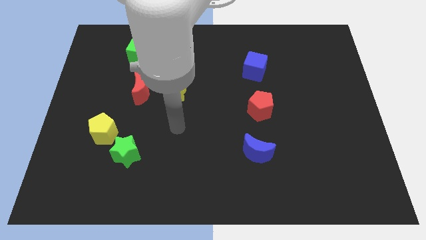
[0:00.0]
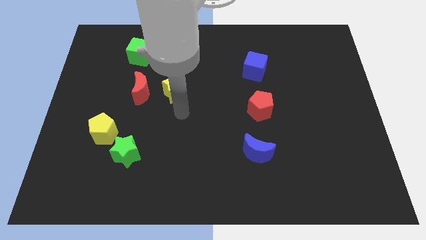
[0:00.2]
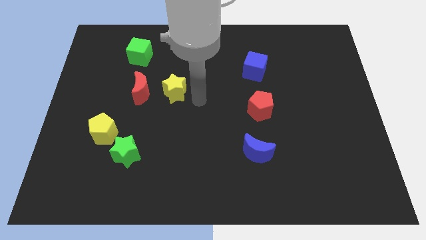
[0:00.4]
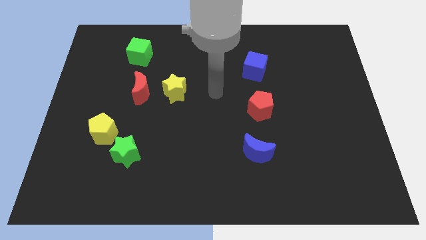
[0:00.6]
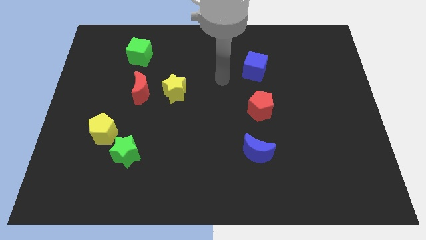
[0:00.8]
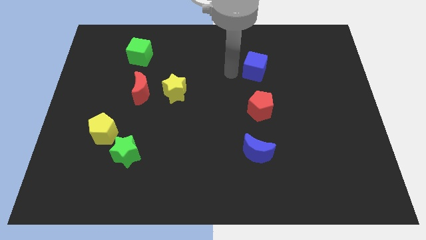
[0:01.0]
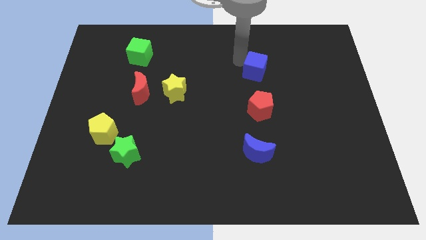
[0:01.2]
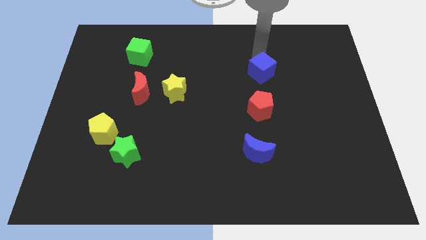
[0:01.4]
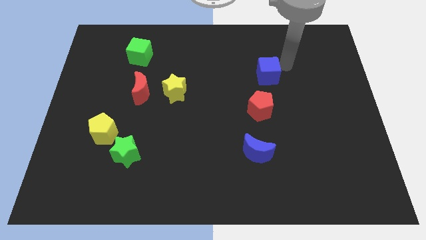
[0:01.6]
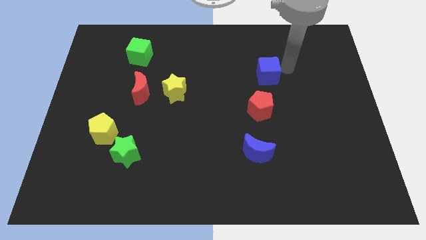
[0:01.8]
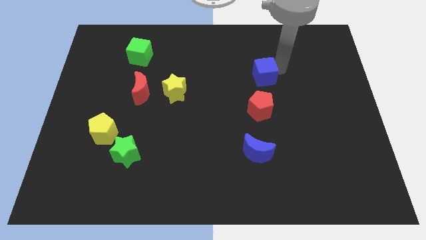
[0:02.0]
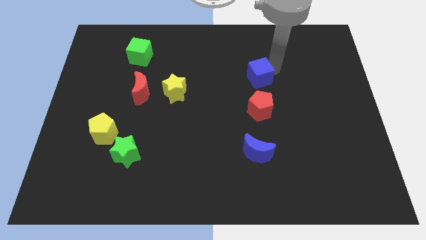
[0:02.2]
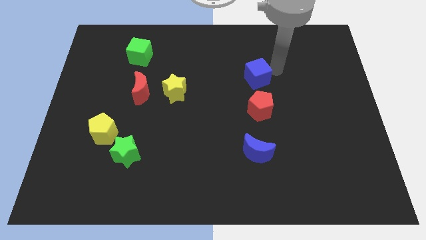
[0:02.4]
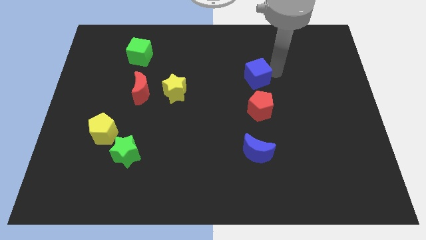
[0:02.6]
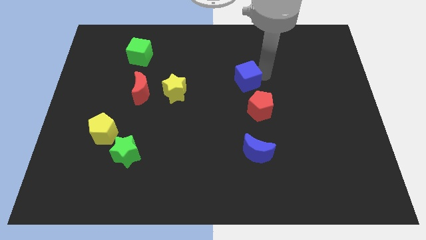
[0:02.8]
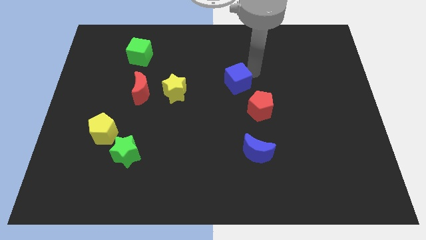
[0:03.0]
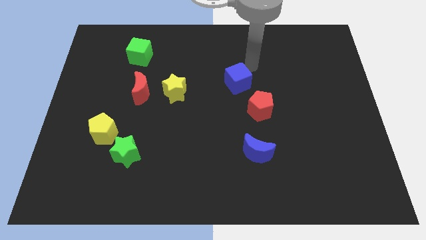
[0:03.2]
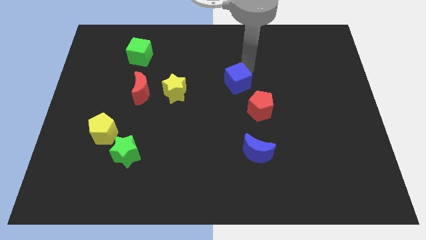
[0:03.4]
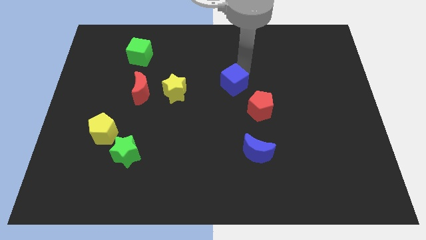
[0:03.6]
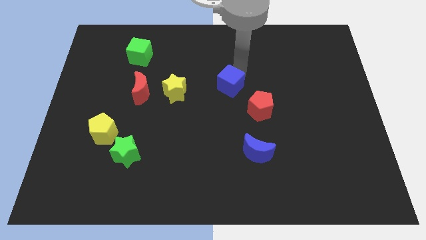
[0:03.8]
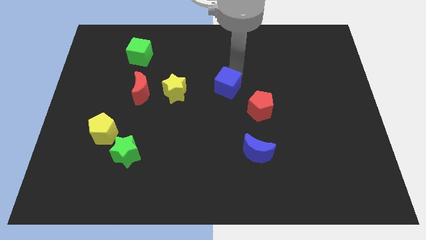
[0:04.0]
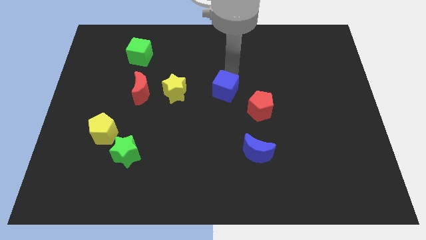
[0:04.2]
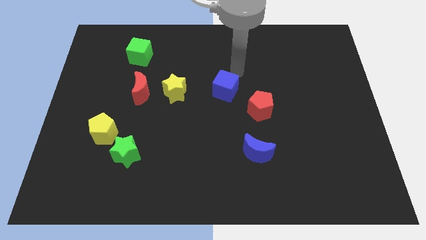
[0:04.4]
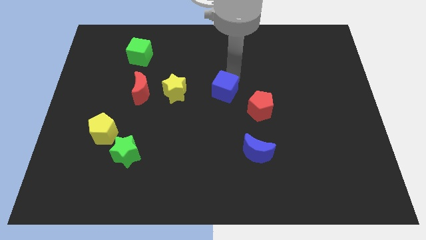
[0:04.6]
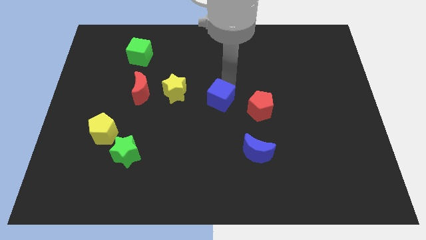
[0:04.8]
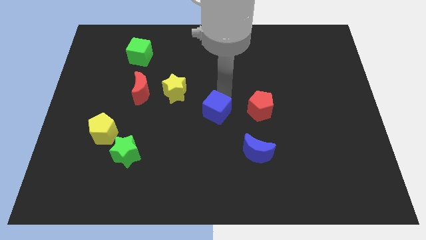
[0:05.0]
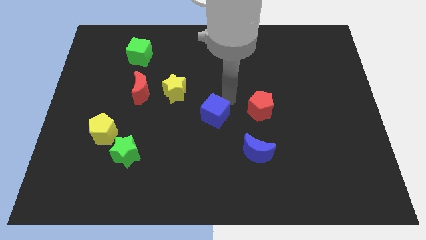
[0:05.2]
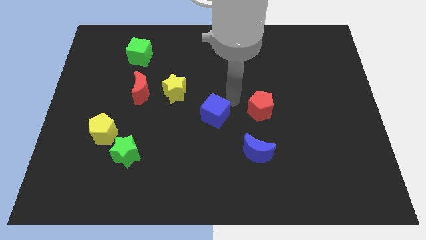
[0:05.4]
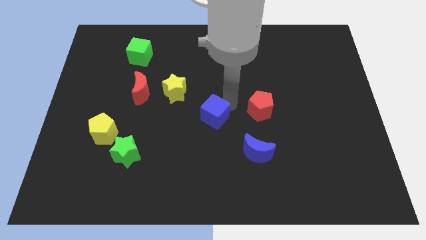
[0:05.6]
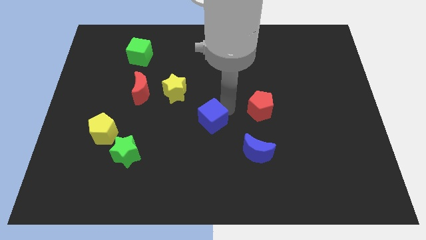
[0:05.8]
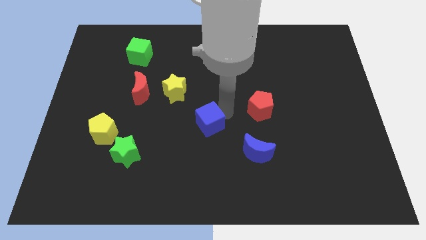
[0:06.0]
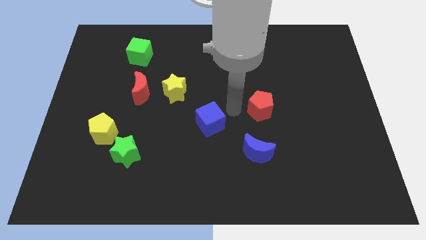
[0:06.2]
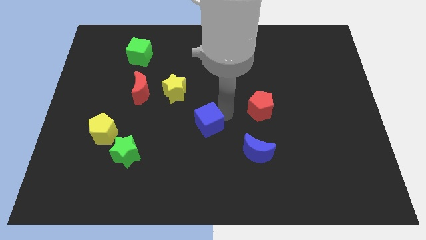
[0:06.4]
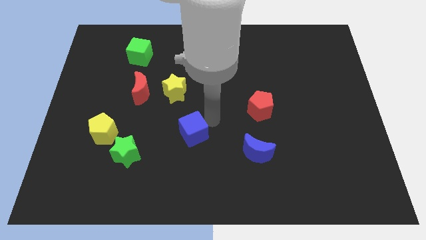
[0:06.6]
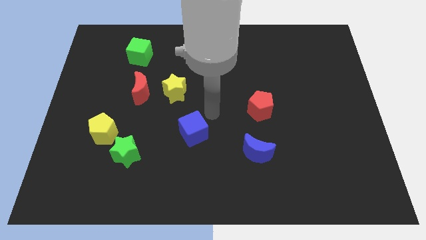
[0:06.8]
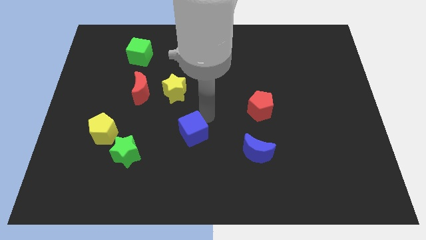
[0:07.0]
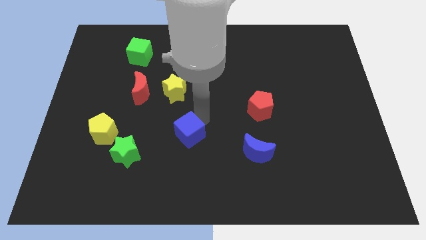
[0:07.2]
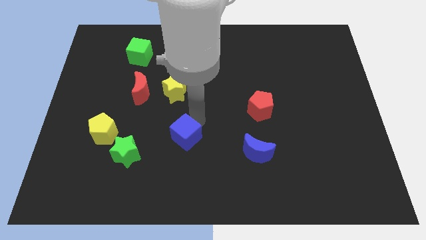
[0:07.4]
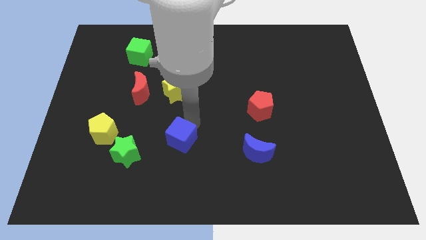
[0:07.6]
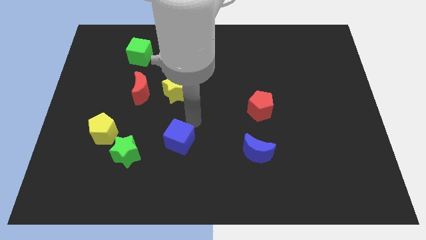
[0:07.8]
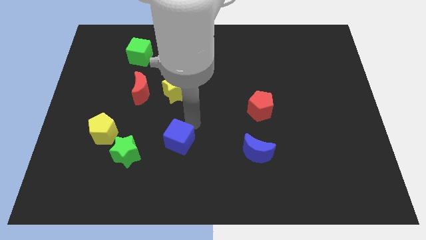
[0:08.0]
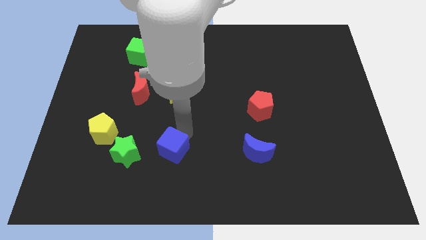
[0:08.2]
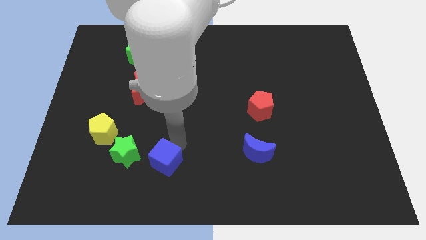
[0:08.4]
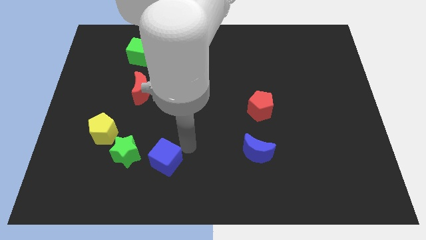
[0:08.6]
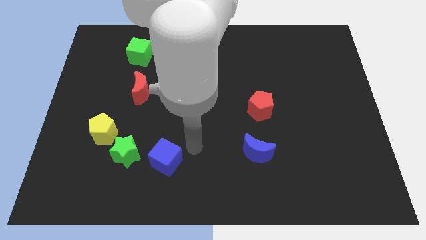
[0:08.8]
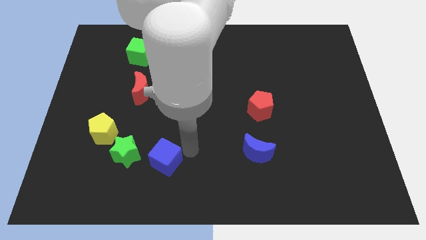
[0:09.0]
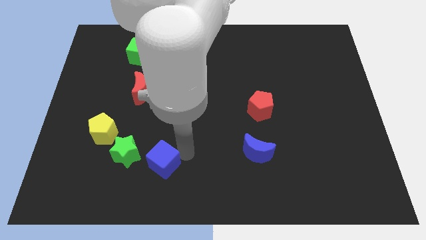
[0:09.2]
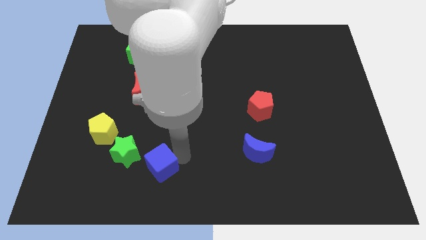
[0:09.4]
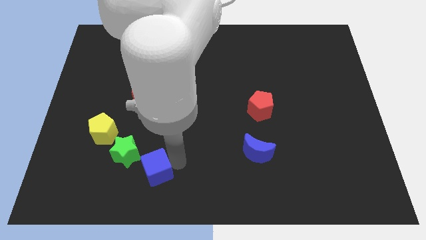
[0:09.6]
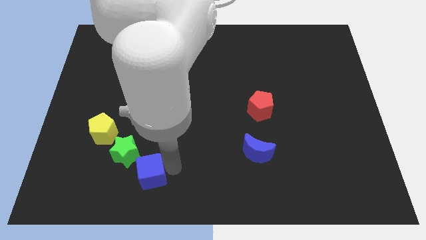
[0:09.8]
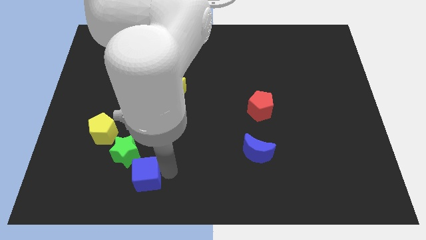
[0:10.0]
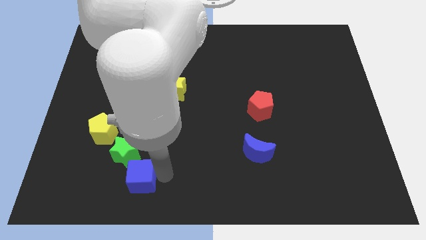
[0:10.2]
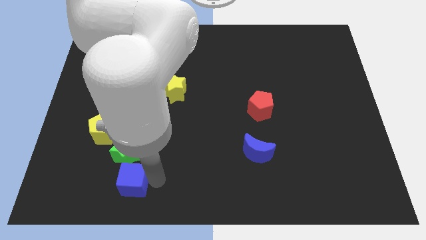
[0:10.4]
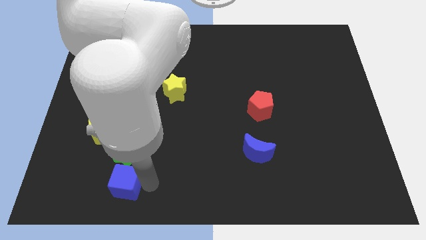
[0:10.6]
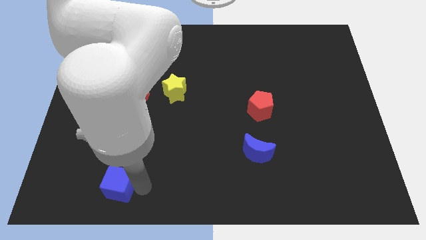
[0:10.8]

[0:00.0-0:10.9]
move the blue cube diagonally down and to the left of the green star

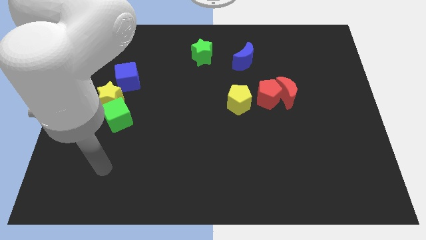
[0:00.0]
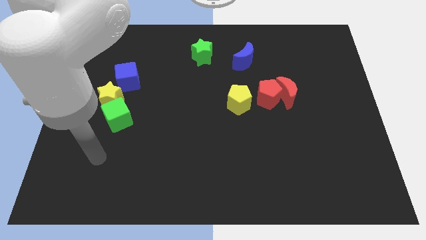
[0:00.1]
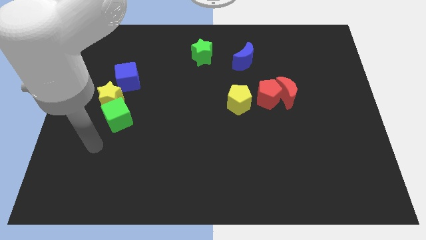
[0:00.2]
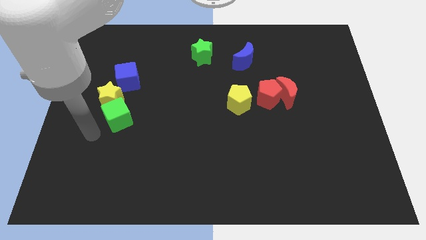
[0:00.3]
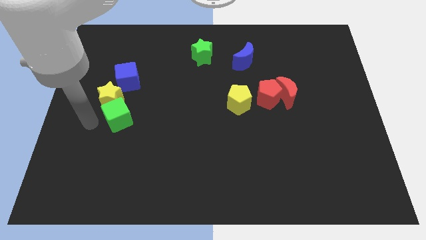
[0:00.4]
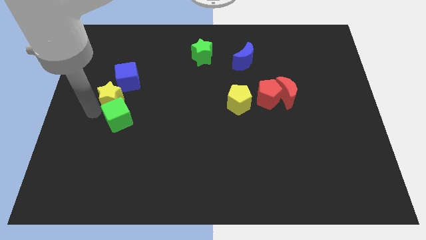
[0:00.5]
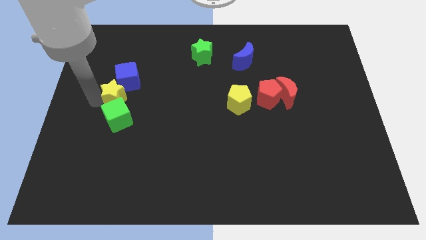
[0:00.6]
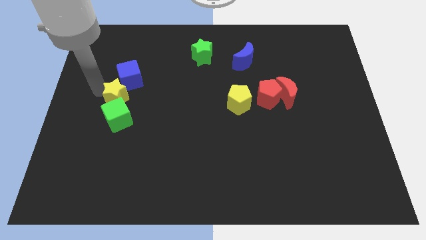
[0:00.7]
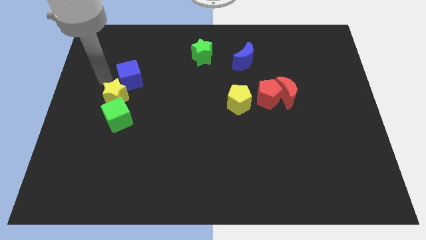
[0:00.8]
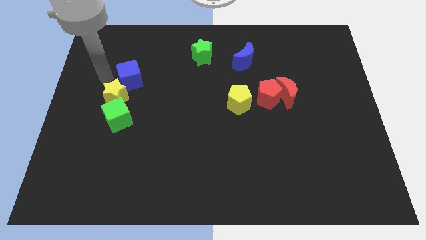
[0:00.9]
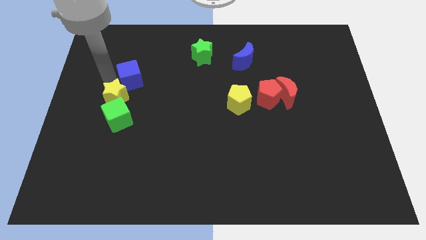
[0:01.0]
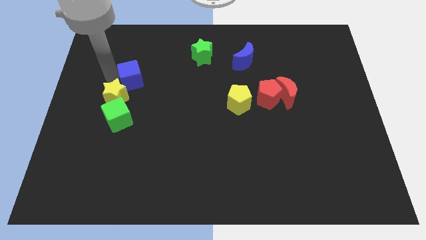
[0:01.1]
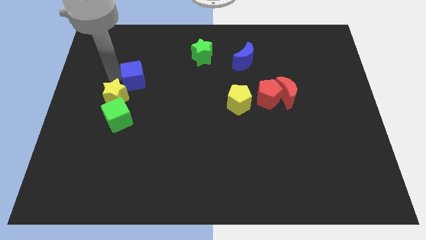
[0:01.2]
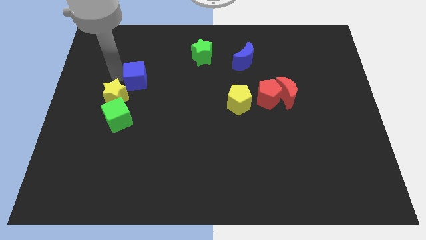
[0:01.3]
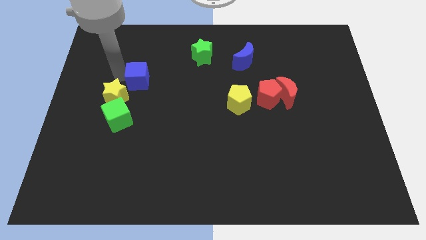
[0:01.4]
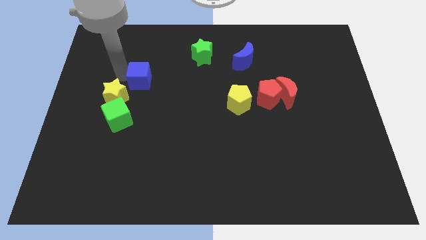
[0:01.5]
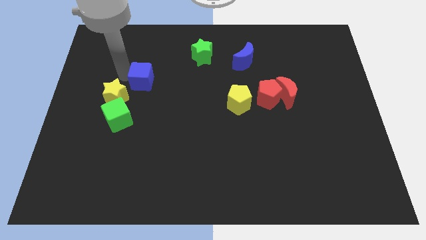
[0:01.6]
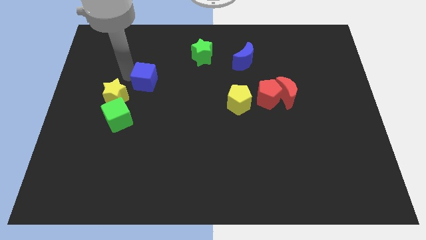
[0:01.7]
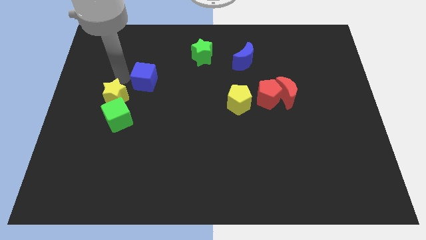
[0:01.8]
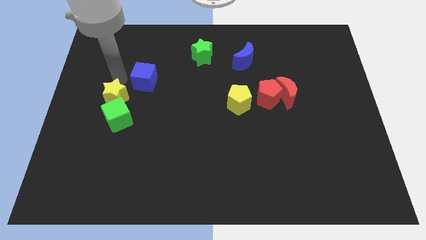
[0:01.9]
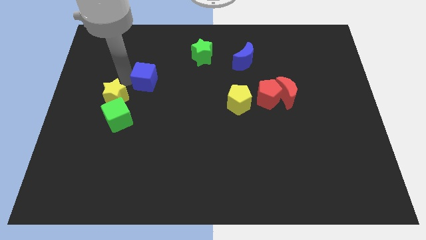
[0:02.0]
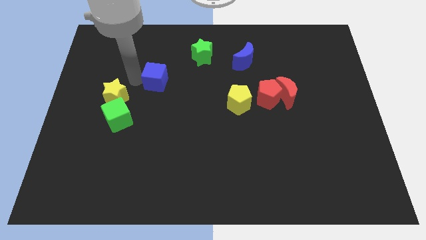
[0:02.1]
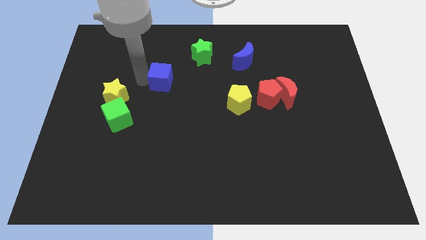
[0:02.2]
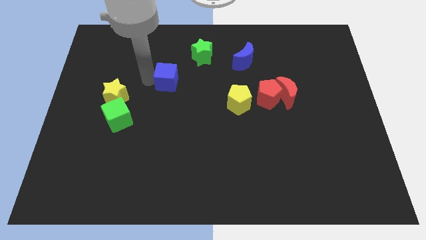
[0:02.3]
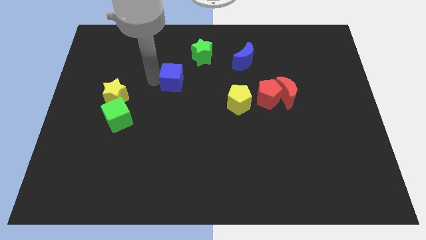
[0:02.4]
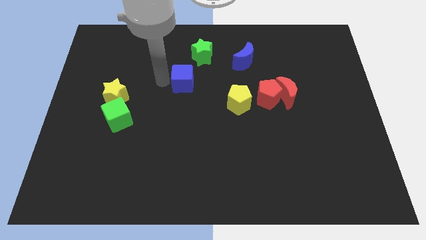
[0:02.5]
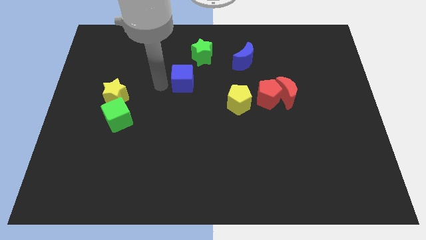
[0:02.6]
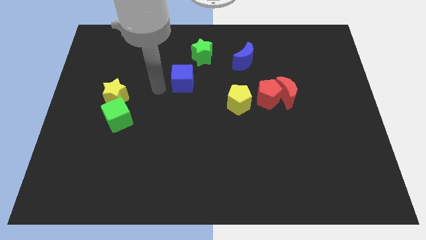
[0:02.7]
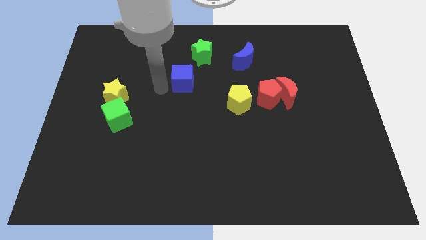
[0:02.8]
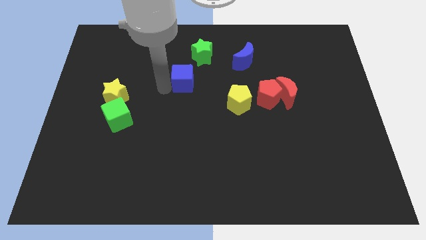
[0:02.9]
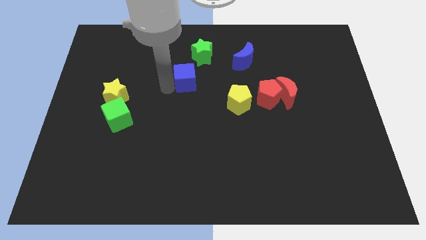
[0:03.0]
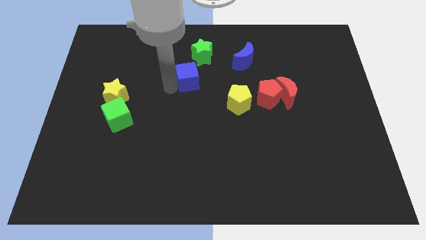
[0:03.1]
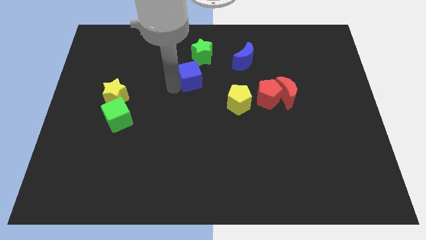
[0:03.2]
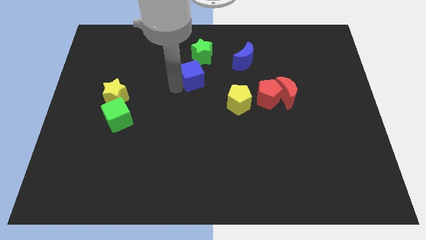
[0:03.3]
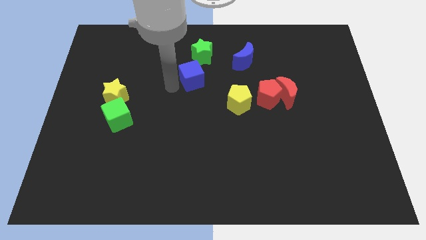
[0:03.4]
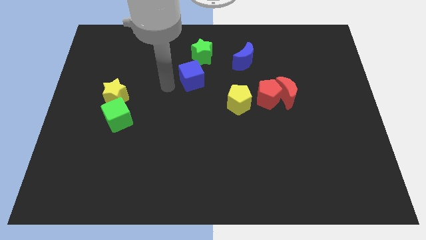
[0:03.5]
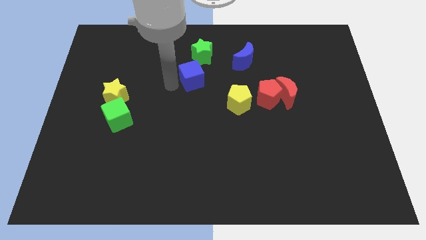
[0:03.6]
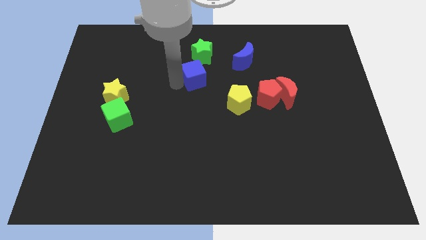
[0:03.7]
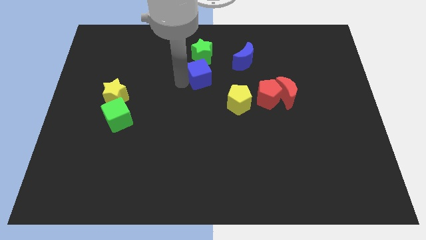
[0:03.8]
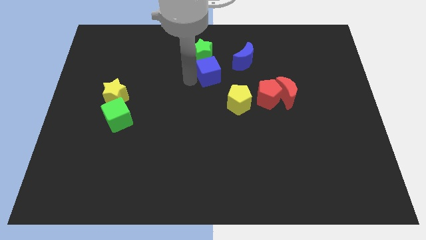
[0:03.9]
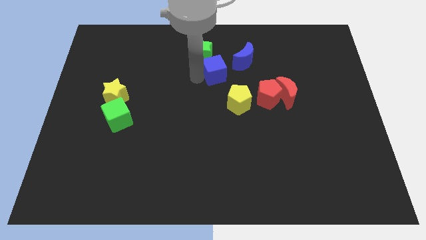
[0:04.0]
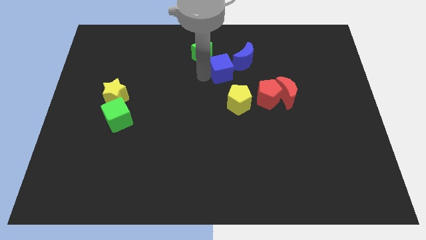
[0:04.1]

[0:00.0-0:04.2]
put the blue cube to the top side of the yellow pentagon
